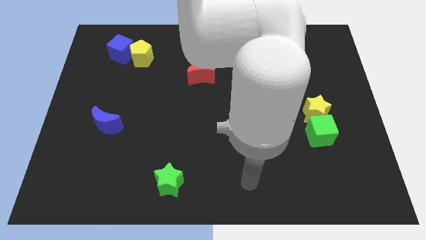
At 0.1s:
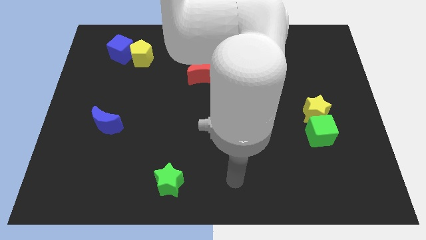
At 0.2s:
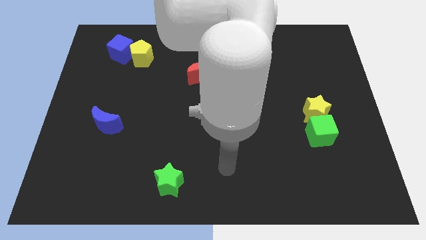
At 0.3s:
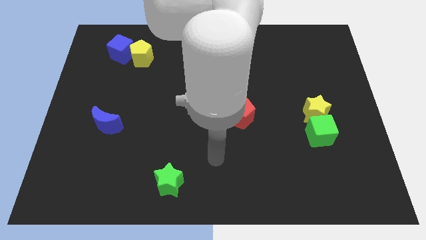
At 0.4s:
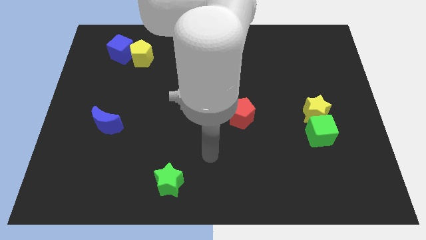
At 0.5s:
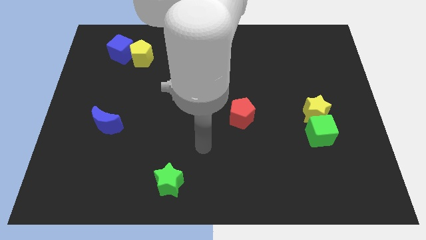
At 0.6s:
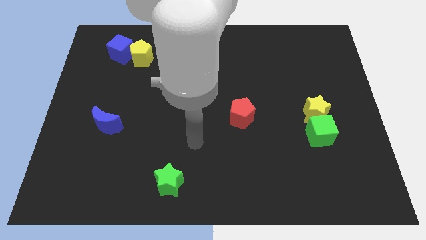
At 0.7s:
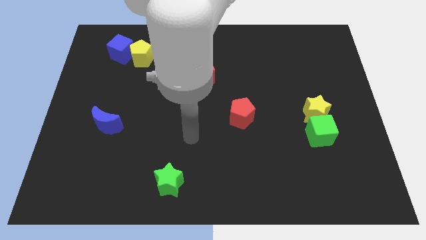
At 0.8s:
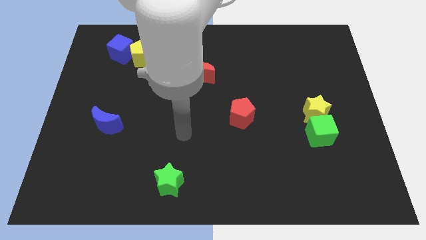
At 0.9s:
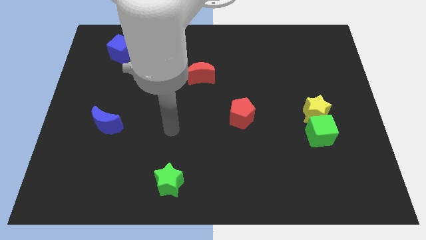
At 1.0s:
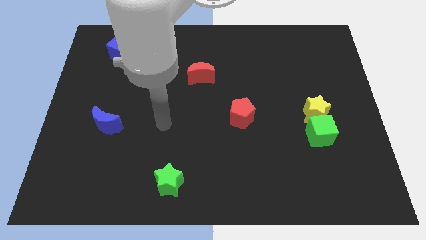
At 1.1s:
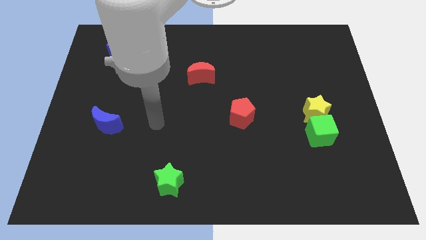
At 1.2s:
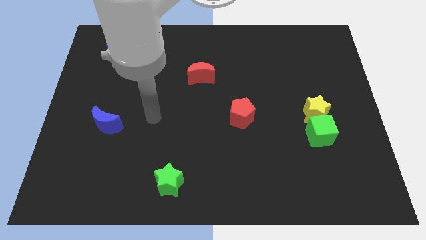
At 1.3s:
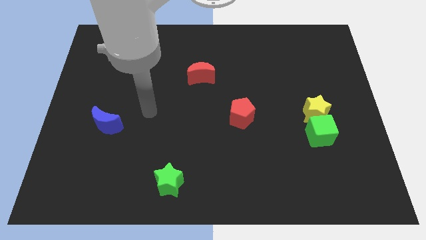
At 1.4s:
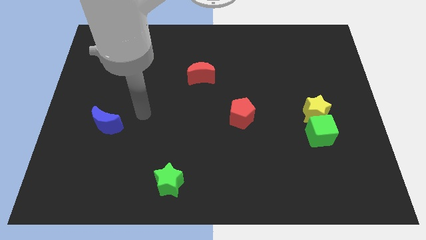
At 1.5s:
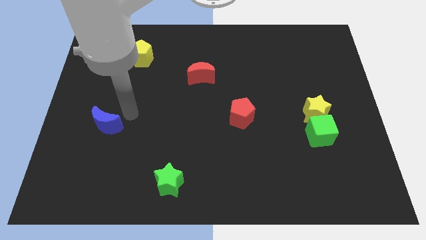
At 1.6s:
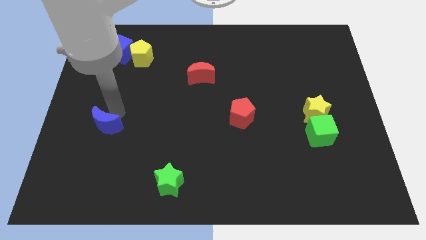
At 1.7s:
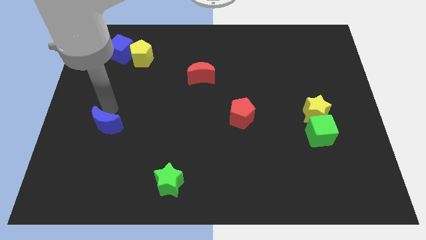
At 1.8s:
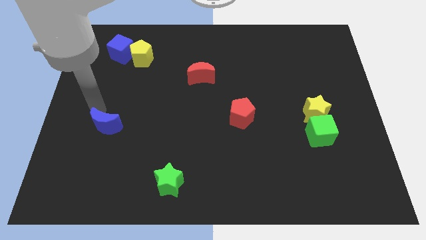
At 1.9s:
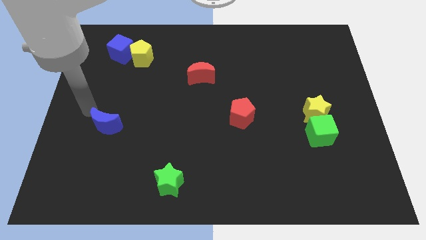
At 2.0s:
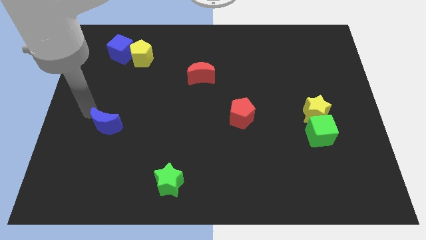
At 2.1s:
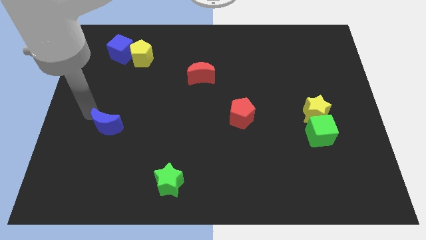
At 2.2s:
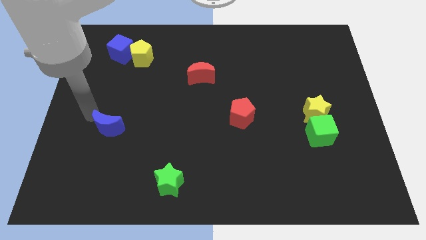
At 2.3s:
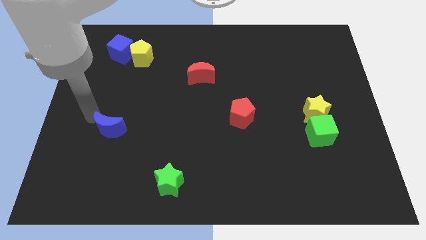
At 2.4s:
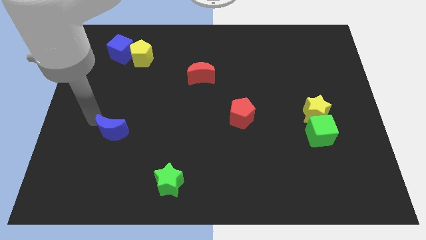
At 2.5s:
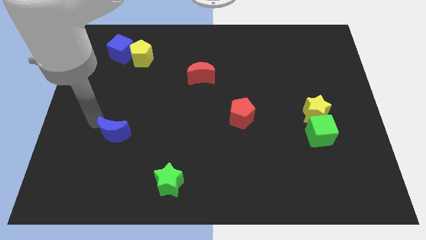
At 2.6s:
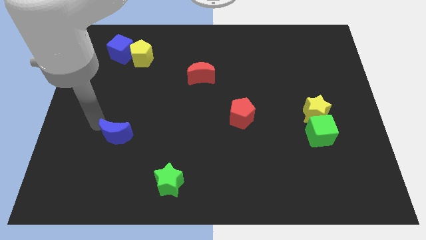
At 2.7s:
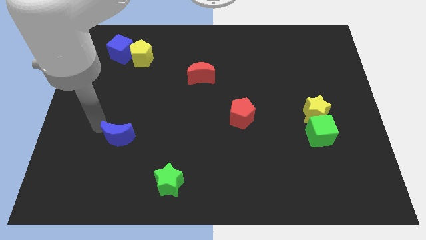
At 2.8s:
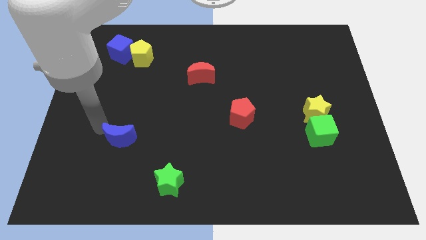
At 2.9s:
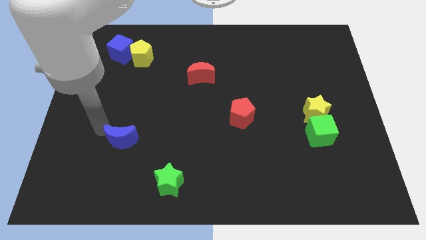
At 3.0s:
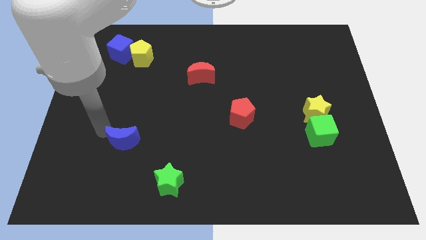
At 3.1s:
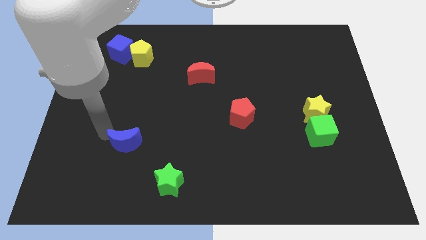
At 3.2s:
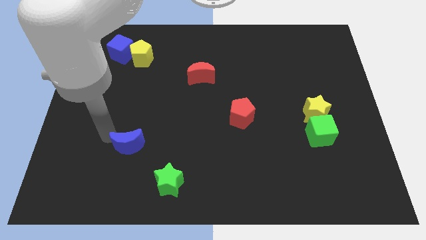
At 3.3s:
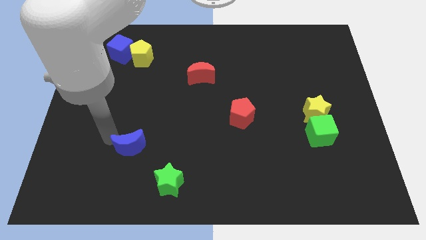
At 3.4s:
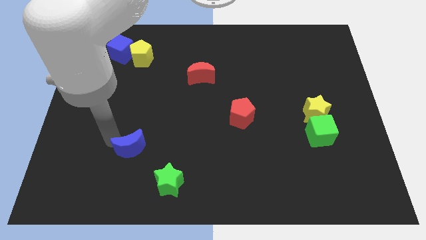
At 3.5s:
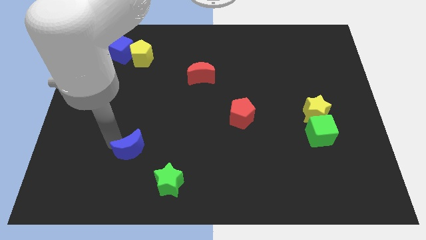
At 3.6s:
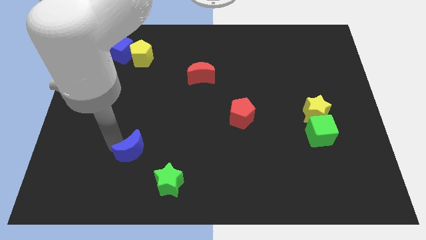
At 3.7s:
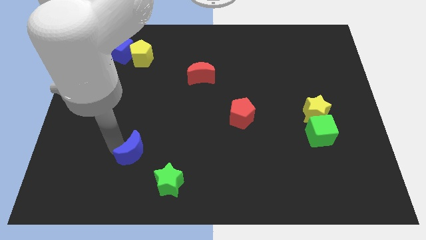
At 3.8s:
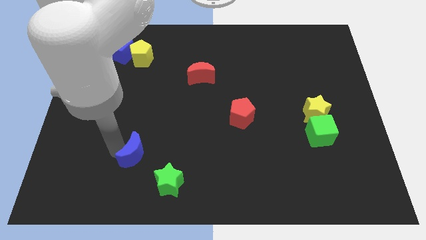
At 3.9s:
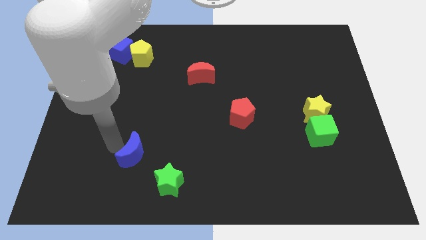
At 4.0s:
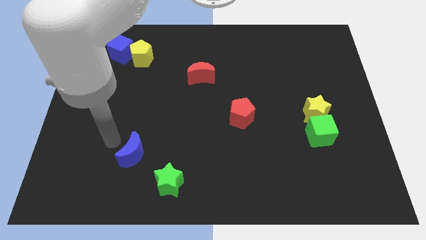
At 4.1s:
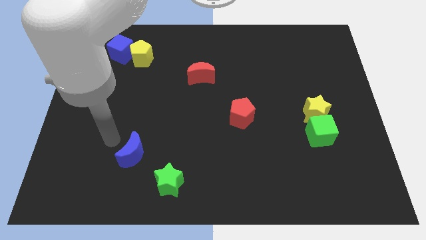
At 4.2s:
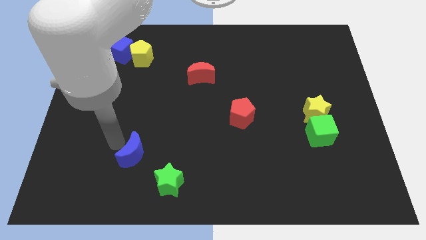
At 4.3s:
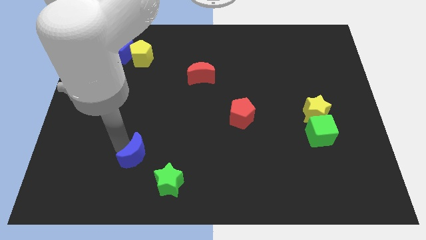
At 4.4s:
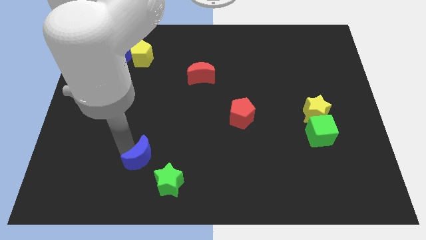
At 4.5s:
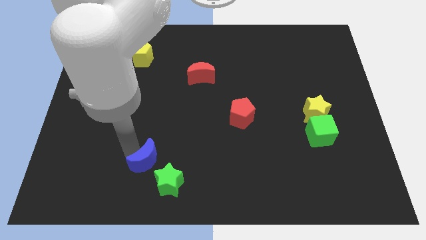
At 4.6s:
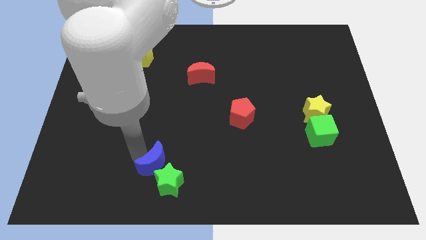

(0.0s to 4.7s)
put the blue moon close to the green star

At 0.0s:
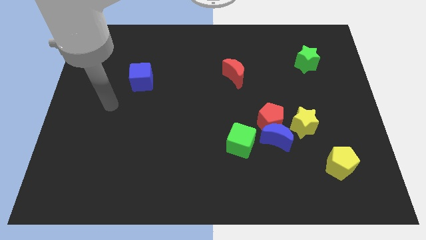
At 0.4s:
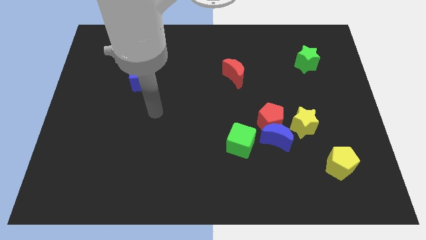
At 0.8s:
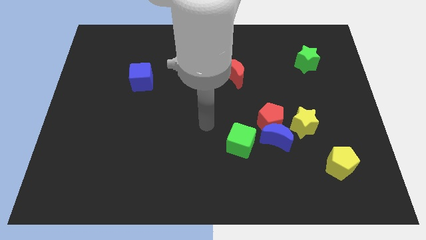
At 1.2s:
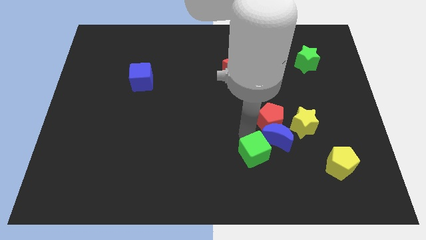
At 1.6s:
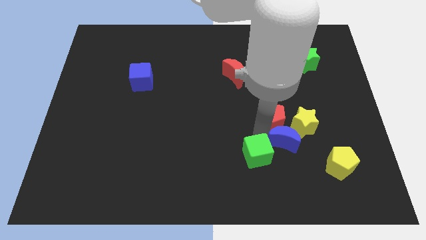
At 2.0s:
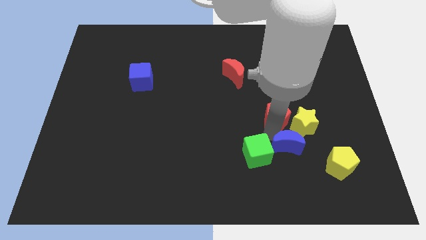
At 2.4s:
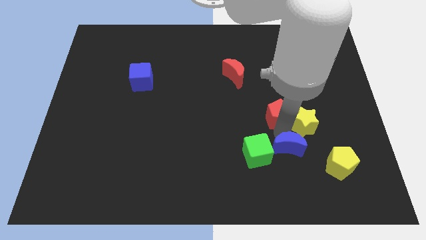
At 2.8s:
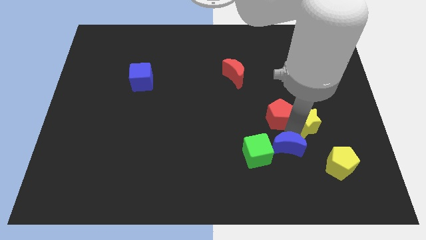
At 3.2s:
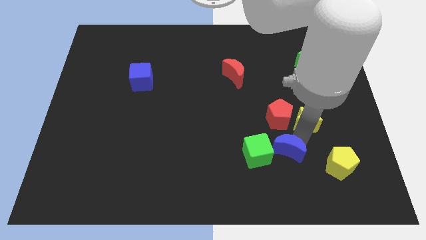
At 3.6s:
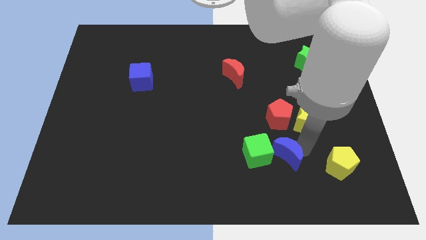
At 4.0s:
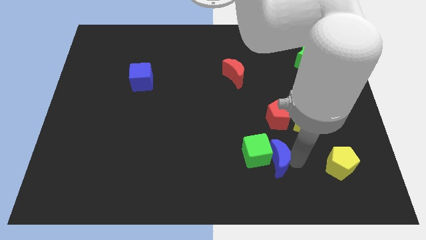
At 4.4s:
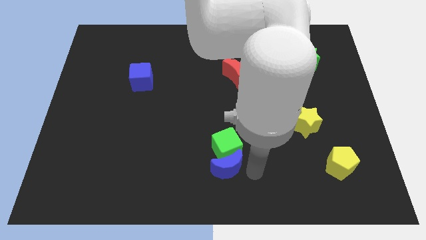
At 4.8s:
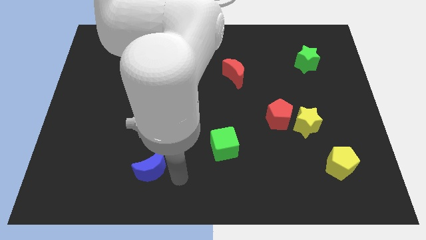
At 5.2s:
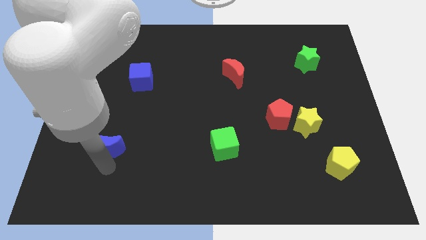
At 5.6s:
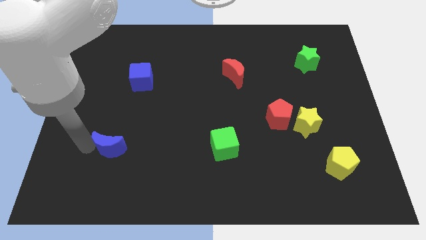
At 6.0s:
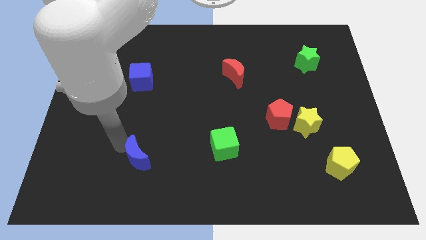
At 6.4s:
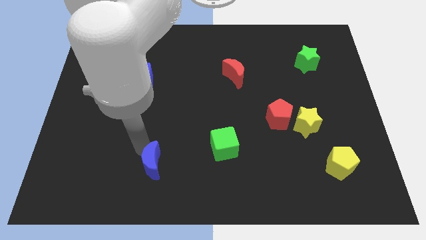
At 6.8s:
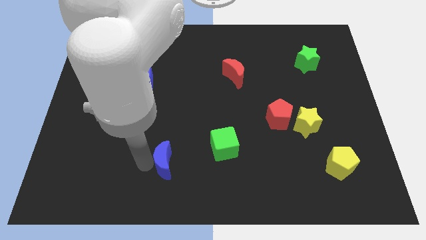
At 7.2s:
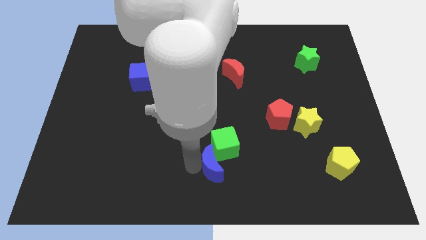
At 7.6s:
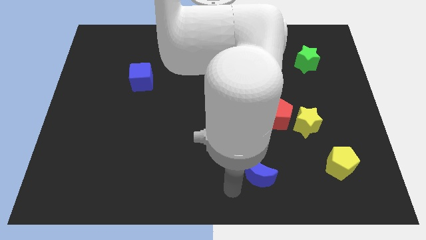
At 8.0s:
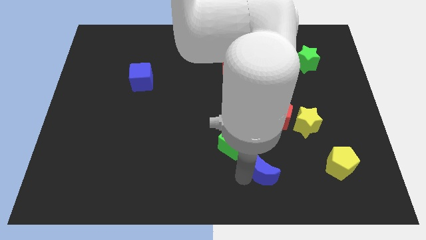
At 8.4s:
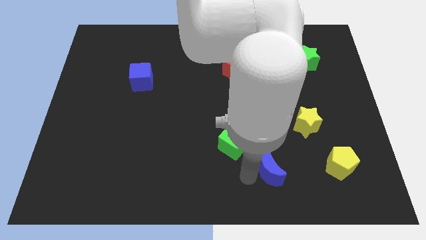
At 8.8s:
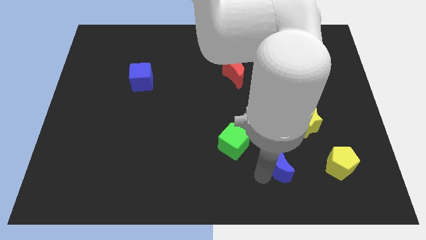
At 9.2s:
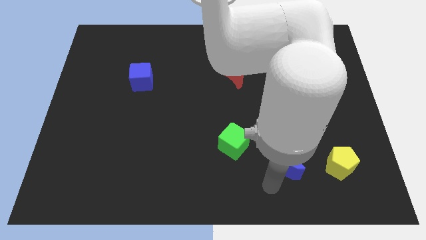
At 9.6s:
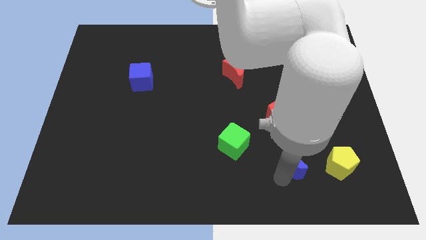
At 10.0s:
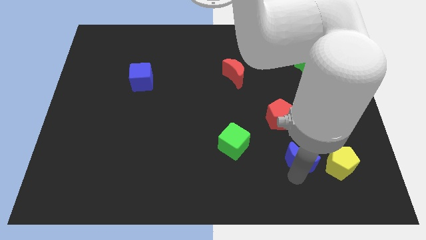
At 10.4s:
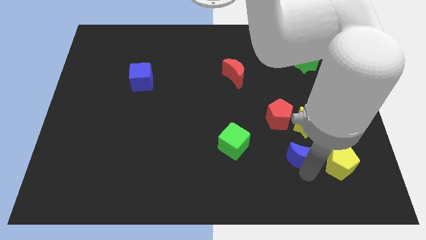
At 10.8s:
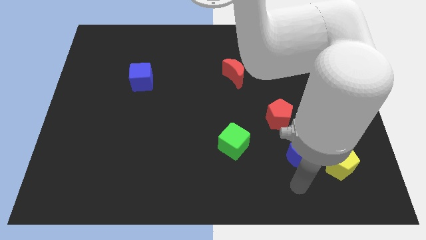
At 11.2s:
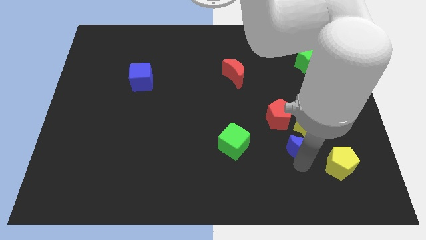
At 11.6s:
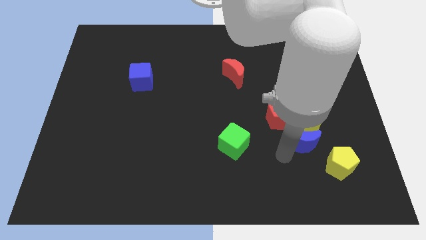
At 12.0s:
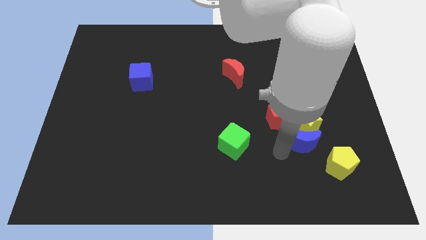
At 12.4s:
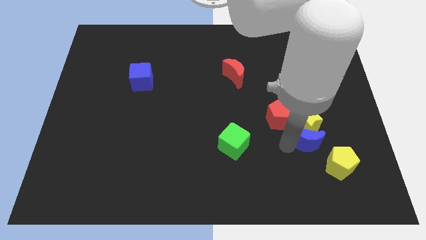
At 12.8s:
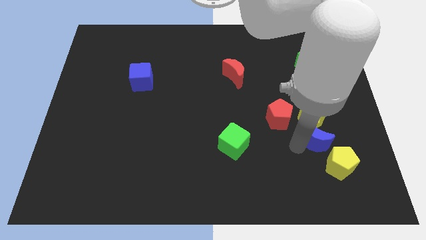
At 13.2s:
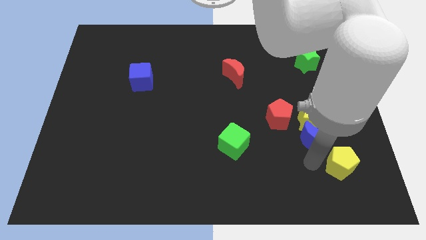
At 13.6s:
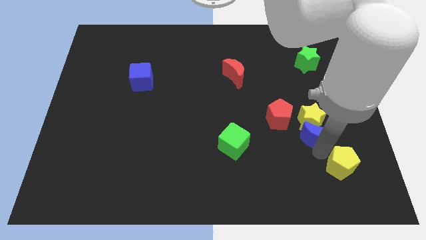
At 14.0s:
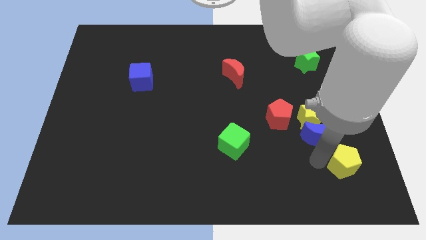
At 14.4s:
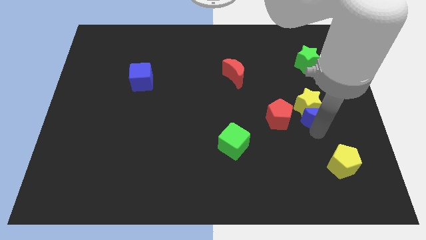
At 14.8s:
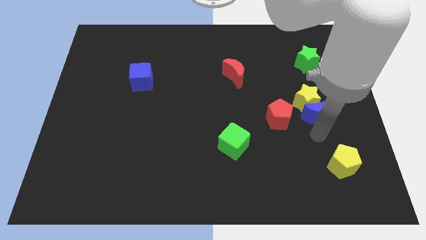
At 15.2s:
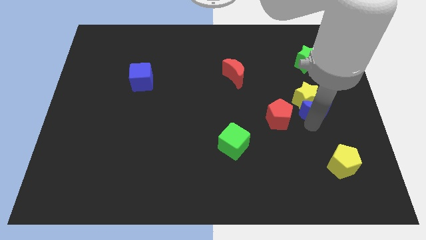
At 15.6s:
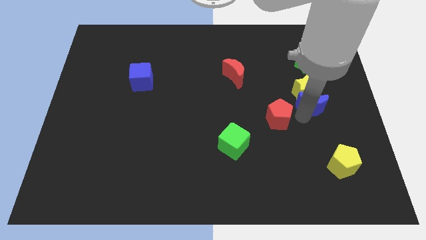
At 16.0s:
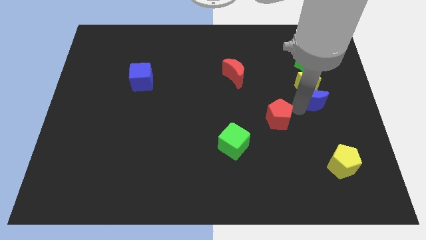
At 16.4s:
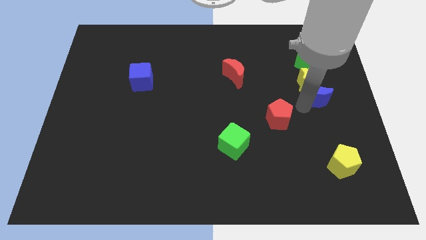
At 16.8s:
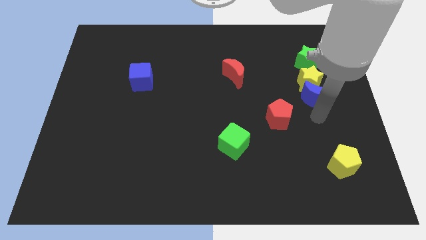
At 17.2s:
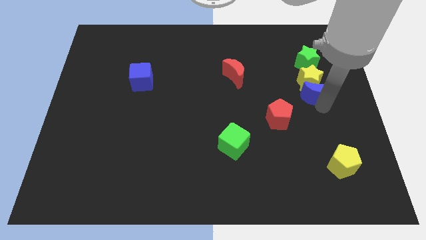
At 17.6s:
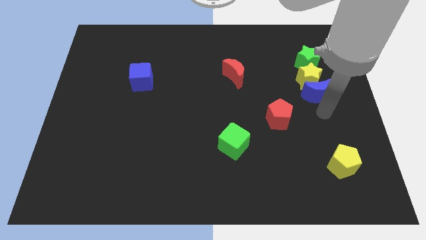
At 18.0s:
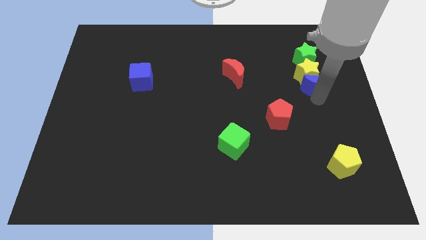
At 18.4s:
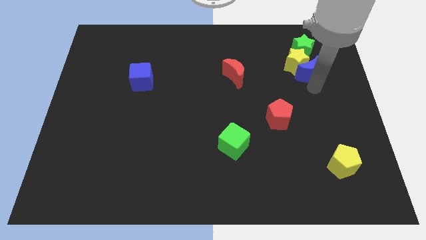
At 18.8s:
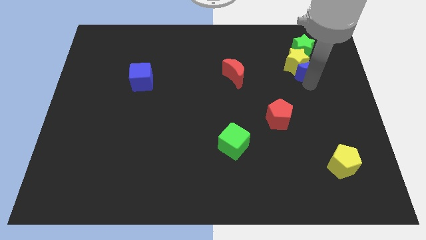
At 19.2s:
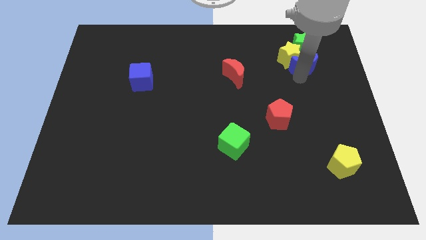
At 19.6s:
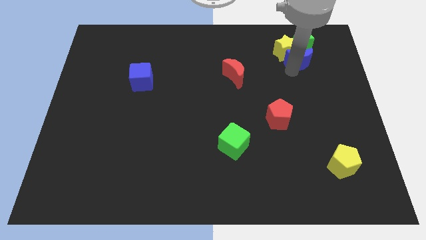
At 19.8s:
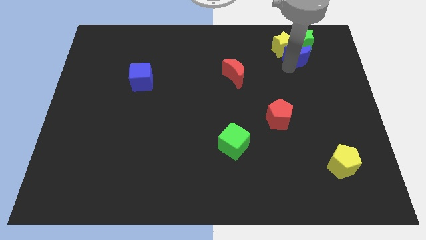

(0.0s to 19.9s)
put the blue moon towards the green star
